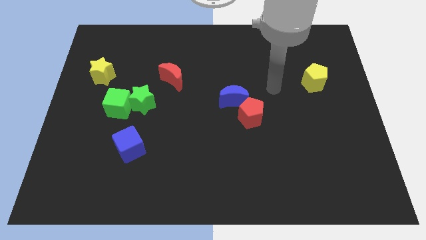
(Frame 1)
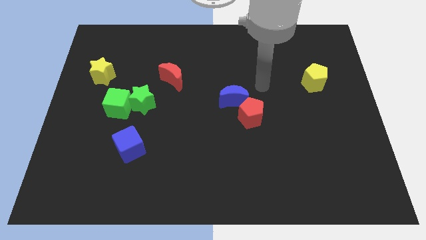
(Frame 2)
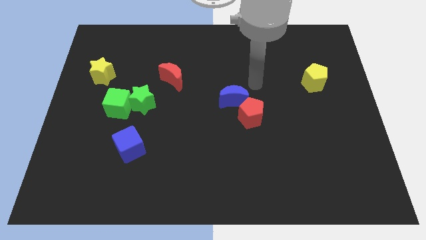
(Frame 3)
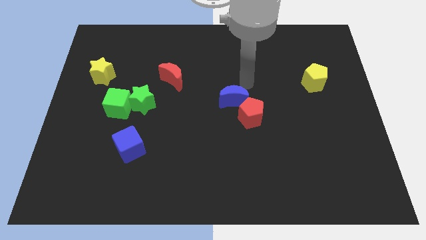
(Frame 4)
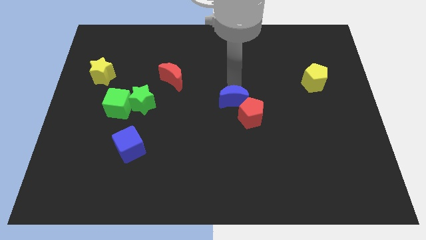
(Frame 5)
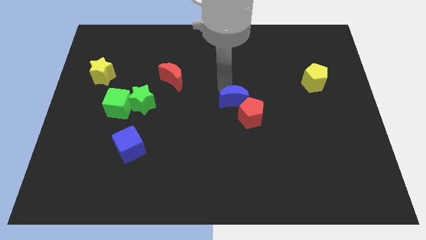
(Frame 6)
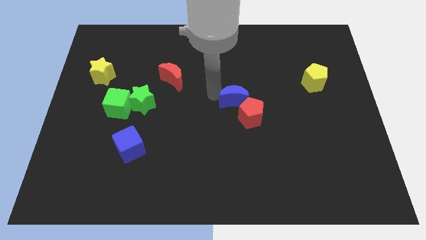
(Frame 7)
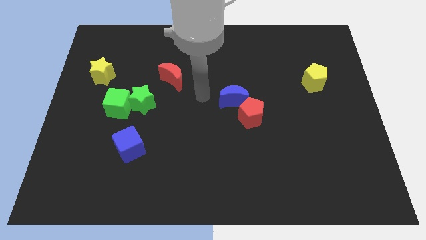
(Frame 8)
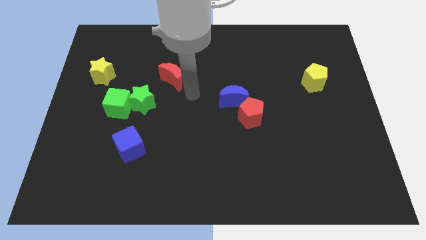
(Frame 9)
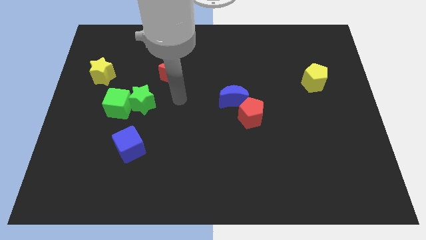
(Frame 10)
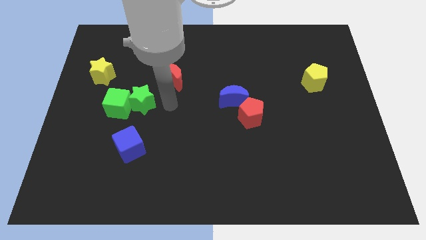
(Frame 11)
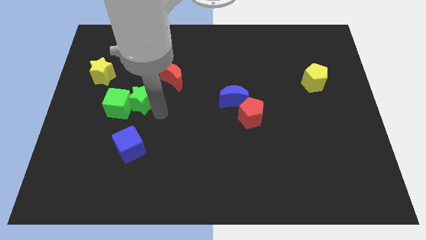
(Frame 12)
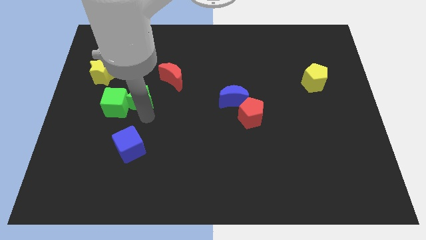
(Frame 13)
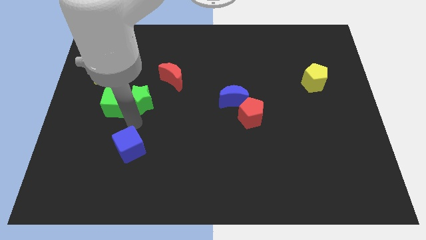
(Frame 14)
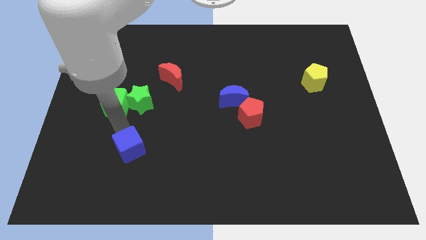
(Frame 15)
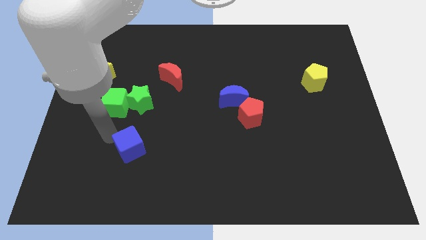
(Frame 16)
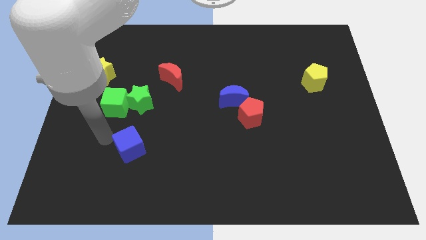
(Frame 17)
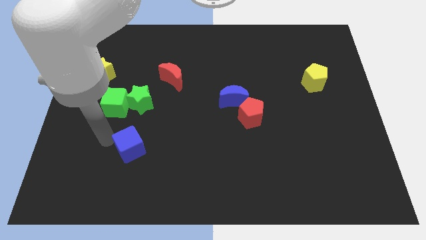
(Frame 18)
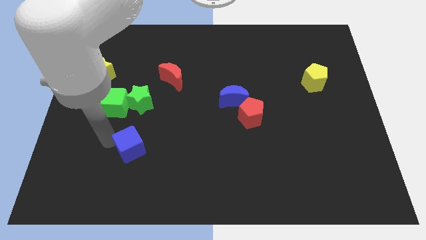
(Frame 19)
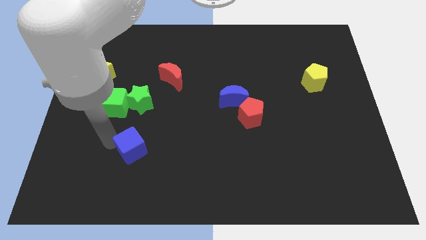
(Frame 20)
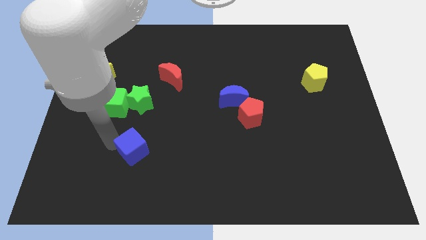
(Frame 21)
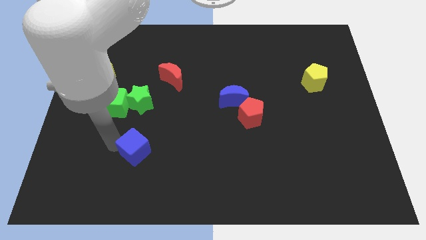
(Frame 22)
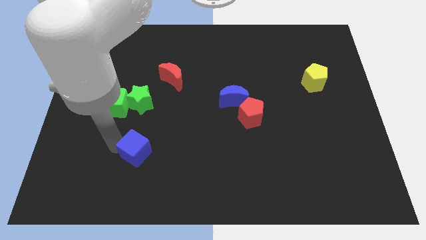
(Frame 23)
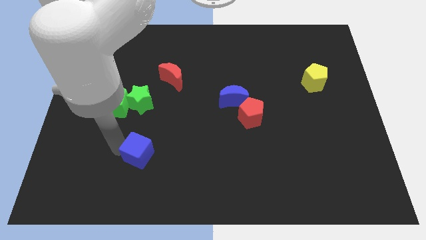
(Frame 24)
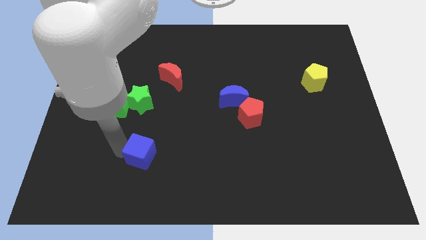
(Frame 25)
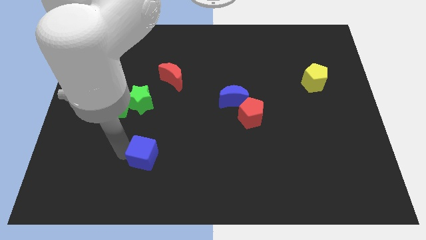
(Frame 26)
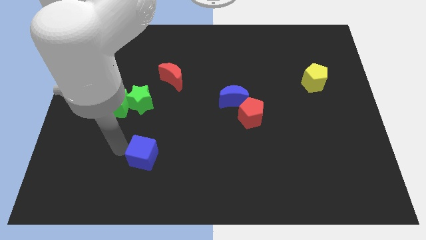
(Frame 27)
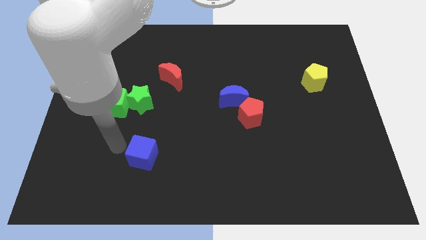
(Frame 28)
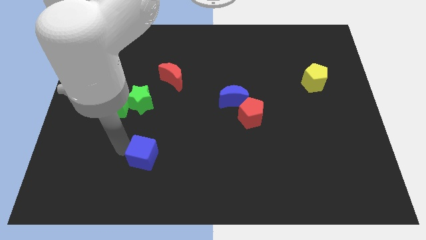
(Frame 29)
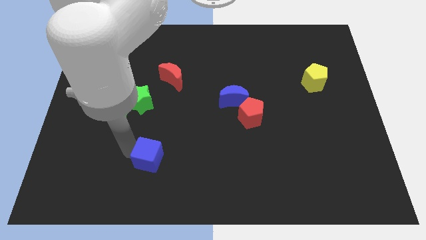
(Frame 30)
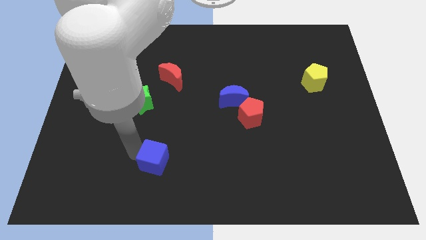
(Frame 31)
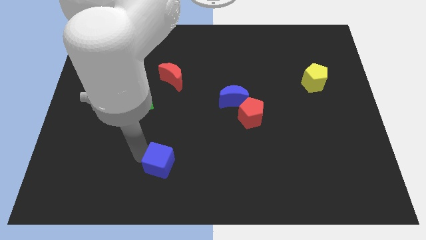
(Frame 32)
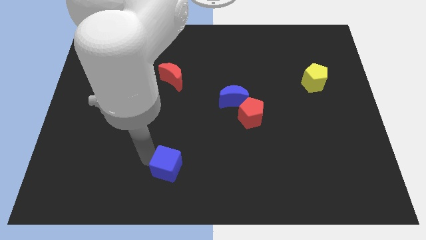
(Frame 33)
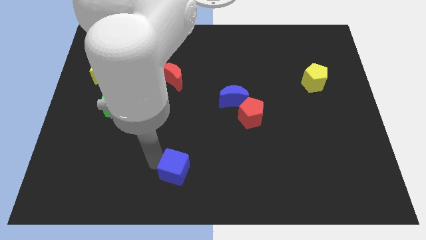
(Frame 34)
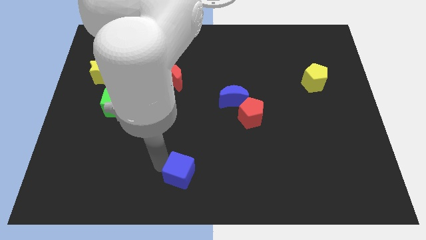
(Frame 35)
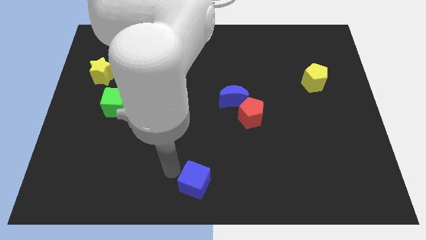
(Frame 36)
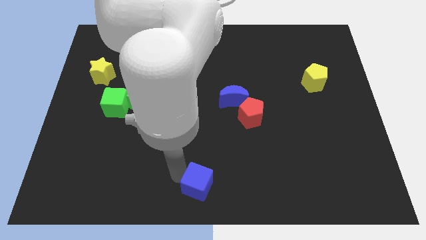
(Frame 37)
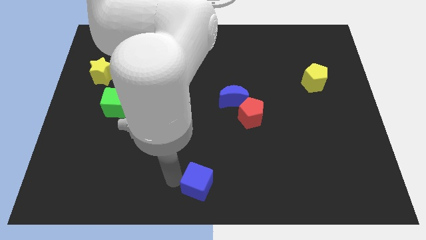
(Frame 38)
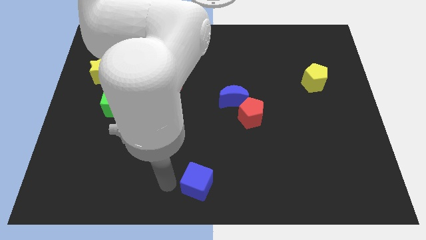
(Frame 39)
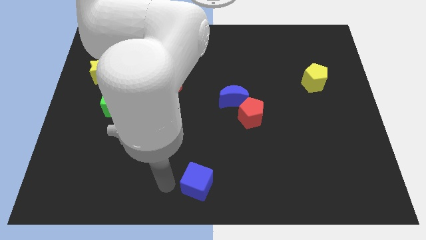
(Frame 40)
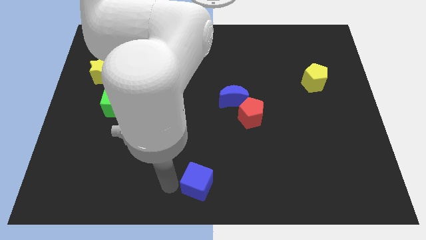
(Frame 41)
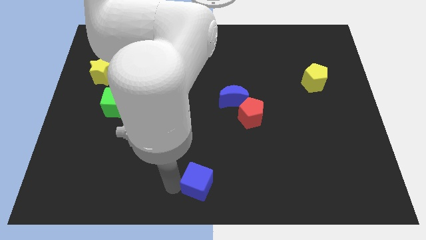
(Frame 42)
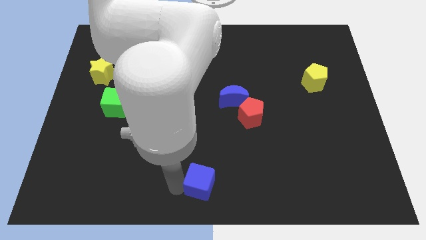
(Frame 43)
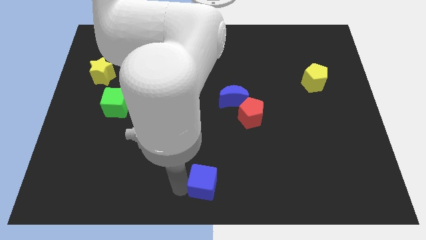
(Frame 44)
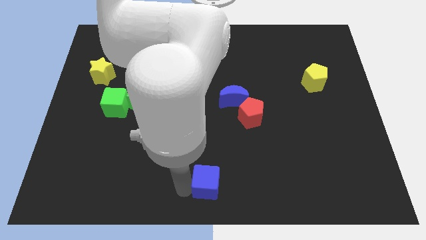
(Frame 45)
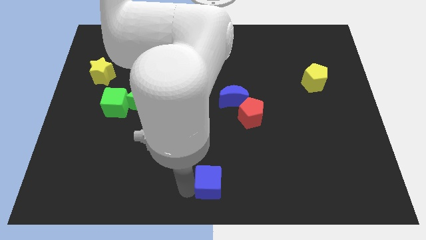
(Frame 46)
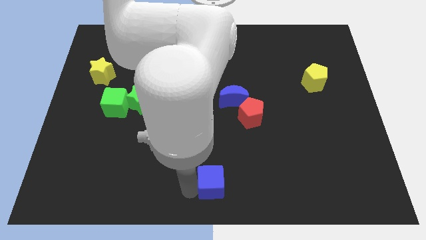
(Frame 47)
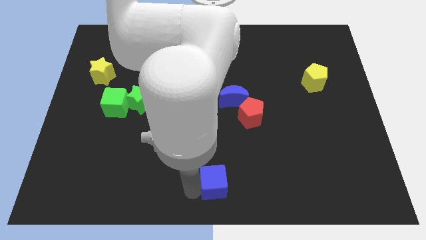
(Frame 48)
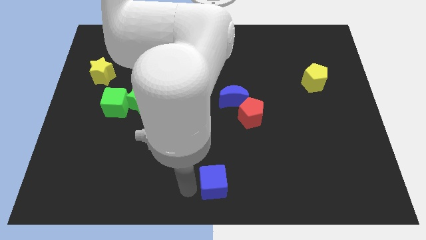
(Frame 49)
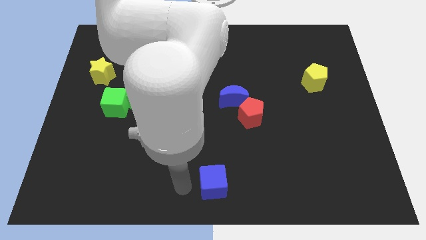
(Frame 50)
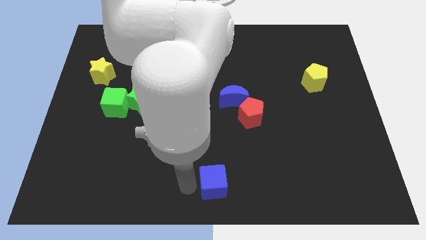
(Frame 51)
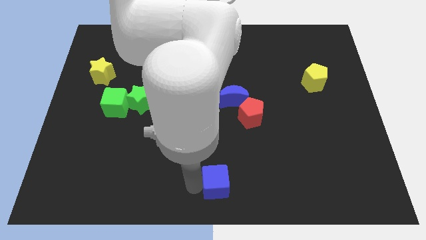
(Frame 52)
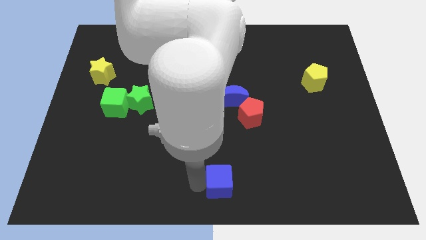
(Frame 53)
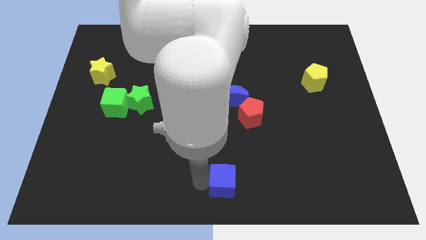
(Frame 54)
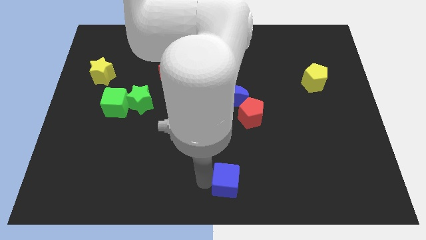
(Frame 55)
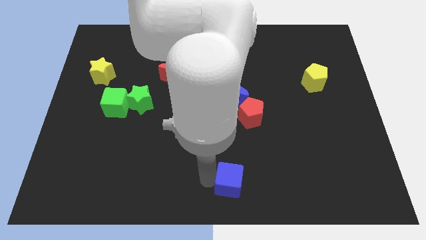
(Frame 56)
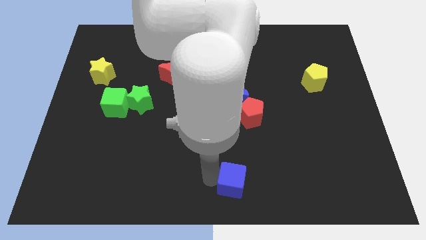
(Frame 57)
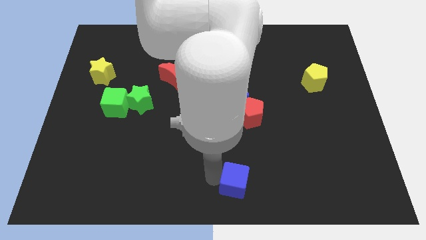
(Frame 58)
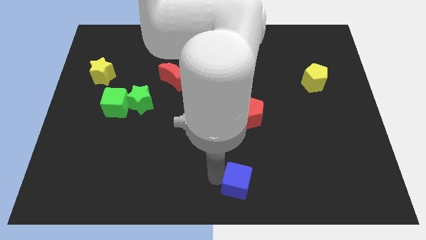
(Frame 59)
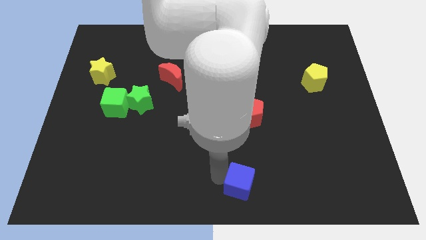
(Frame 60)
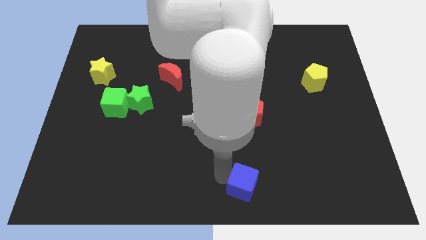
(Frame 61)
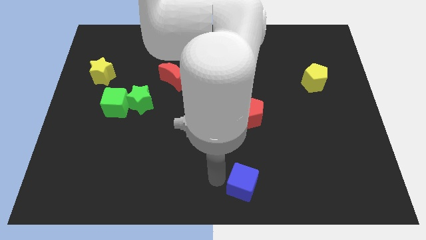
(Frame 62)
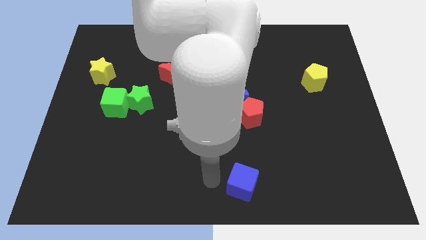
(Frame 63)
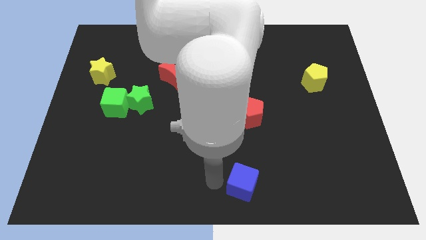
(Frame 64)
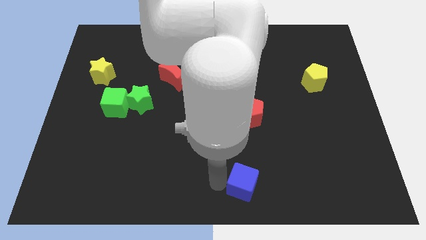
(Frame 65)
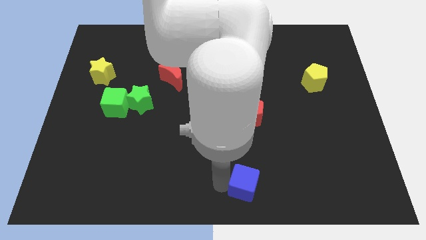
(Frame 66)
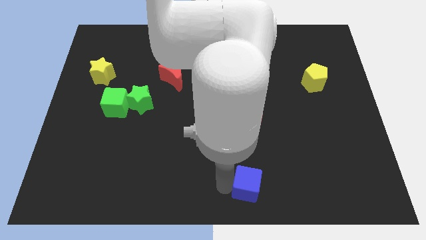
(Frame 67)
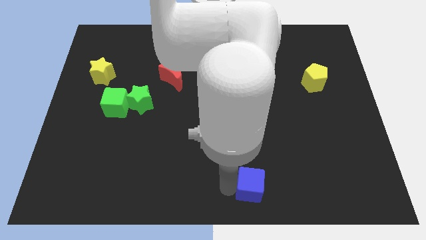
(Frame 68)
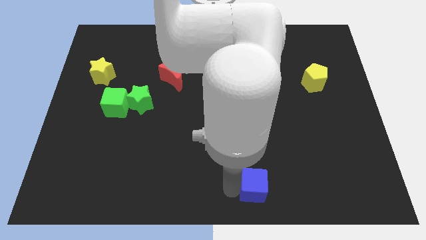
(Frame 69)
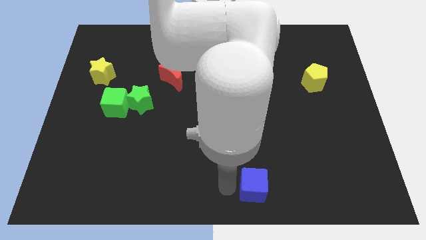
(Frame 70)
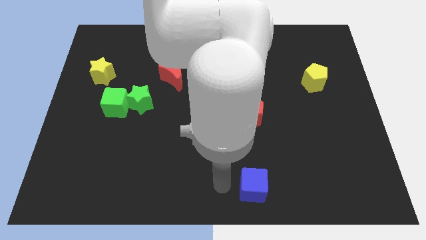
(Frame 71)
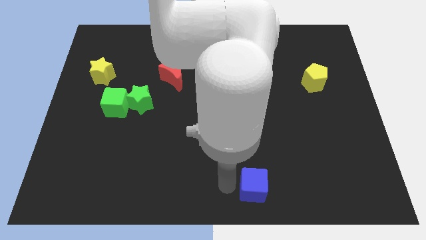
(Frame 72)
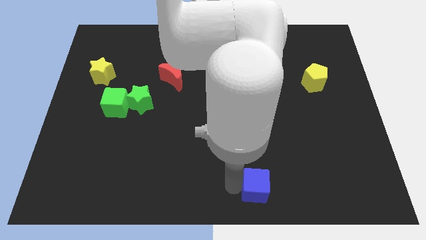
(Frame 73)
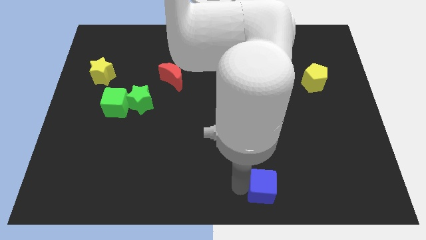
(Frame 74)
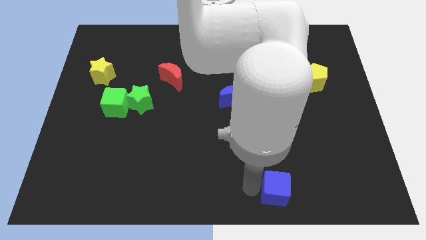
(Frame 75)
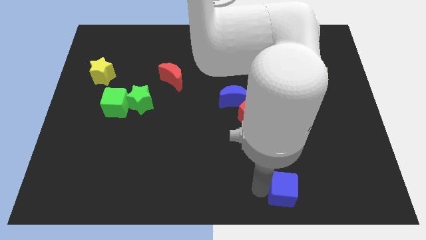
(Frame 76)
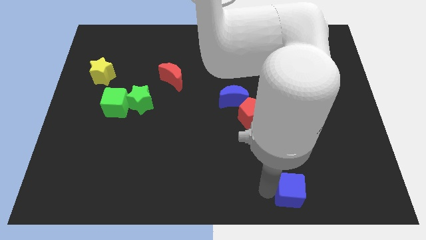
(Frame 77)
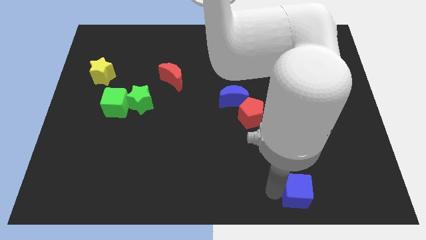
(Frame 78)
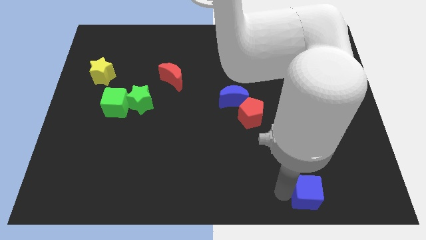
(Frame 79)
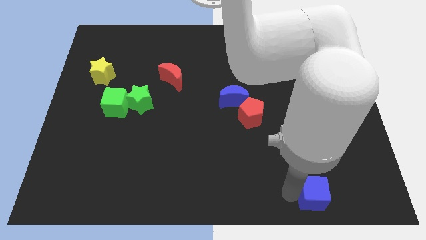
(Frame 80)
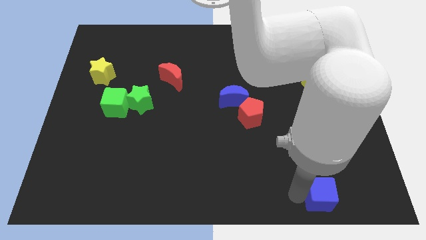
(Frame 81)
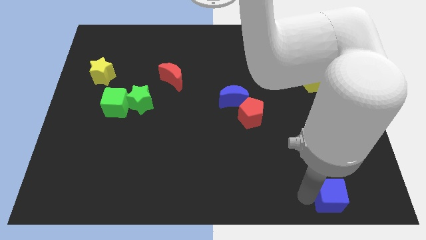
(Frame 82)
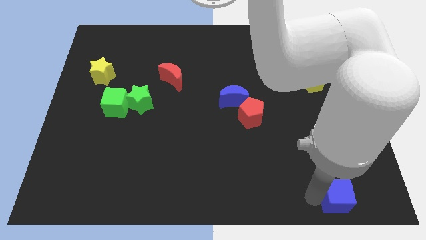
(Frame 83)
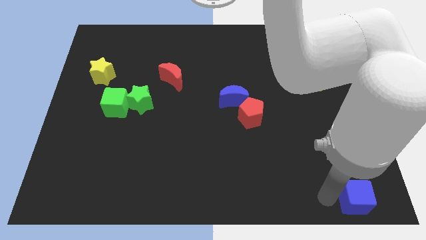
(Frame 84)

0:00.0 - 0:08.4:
push the blue cube to the bottom right corner
